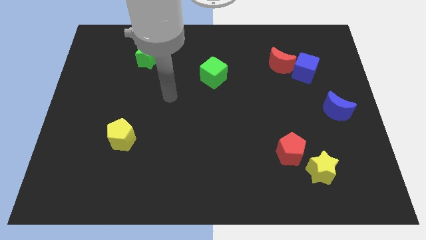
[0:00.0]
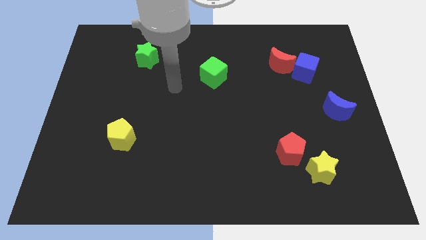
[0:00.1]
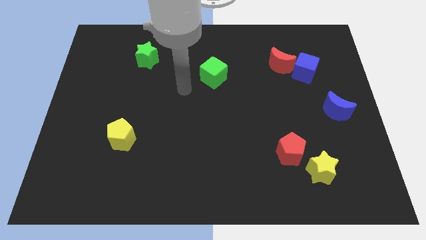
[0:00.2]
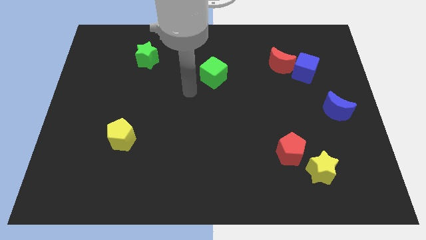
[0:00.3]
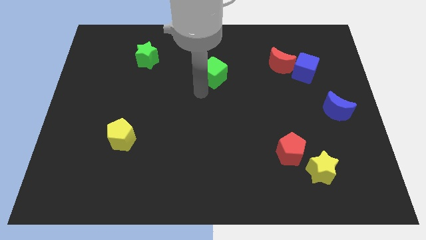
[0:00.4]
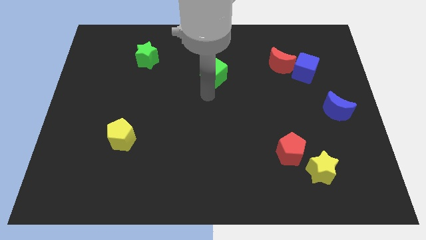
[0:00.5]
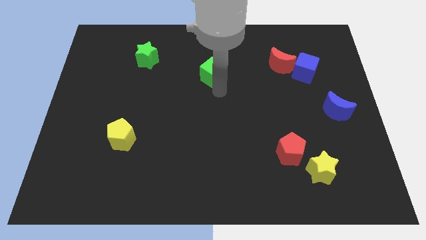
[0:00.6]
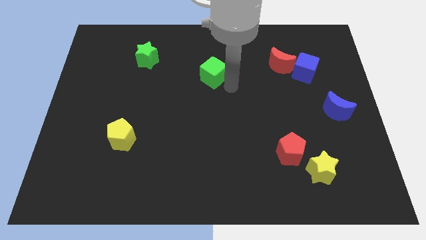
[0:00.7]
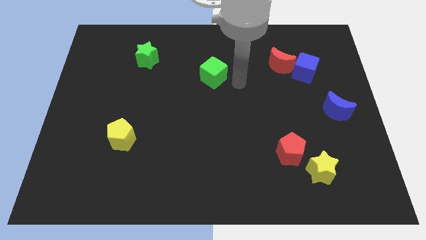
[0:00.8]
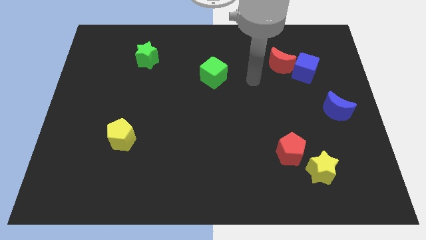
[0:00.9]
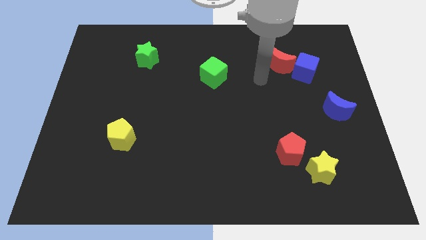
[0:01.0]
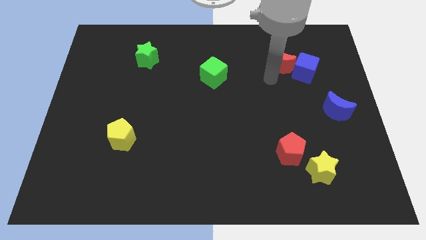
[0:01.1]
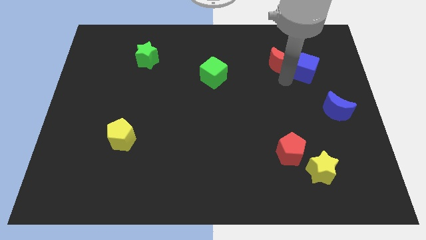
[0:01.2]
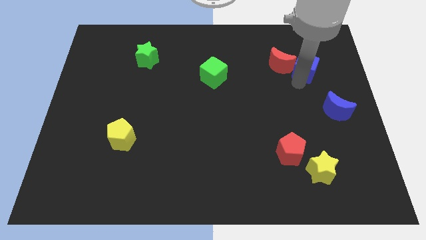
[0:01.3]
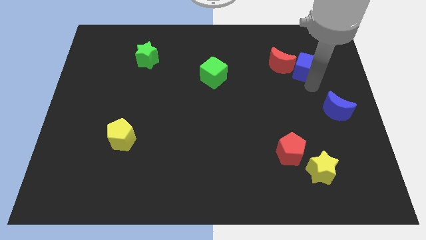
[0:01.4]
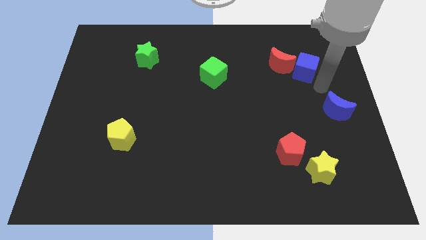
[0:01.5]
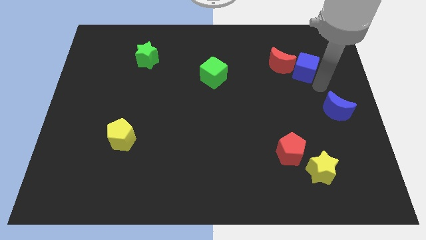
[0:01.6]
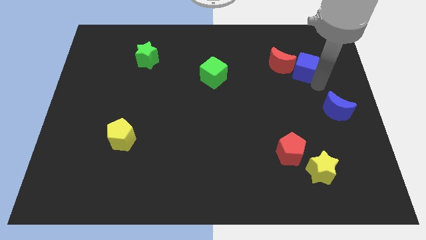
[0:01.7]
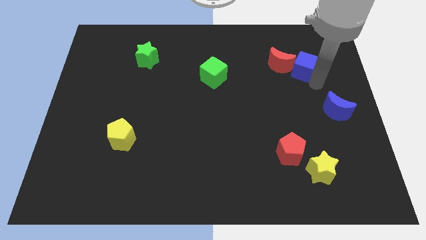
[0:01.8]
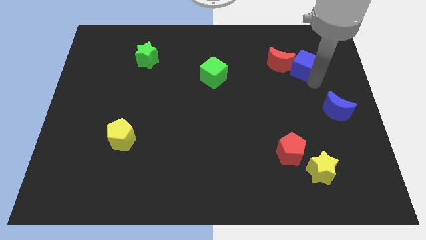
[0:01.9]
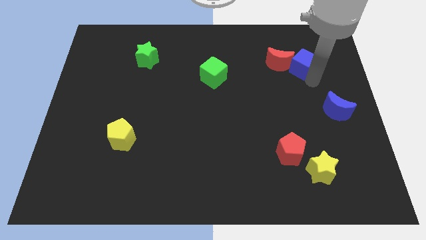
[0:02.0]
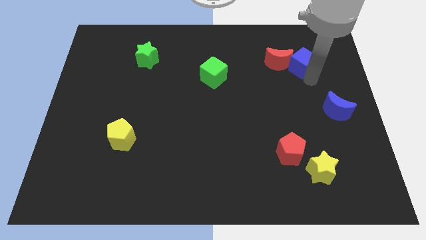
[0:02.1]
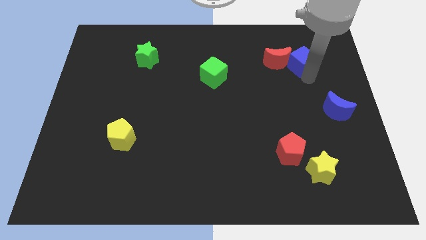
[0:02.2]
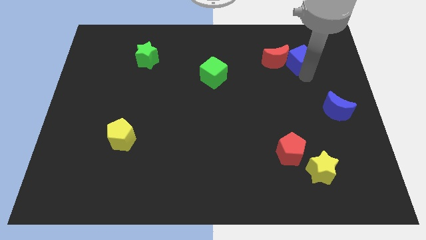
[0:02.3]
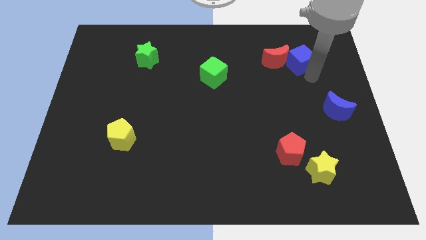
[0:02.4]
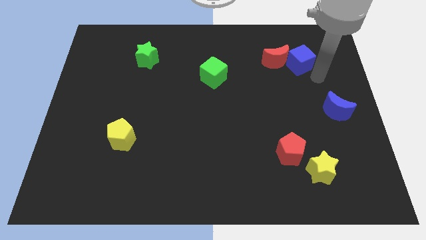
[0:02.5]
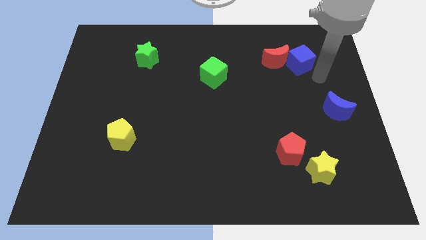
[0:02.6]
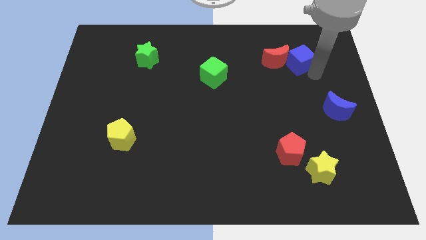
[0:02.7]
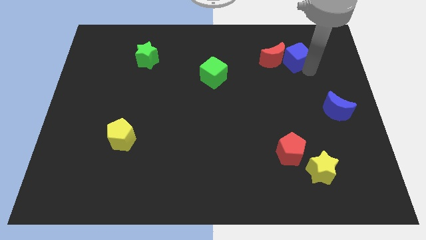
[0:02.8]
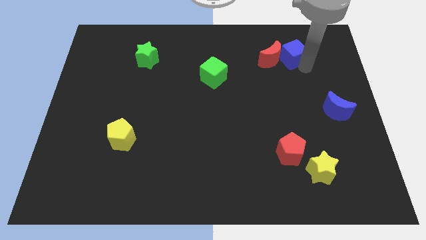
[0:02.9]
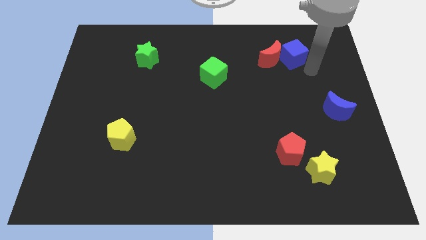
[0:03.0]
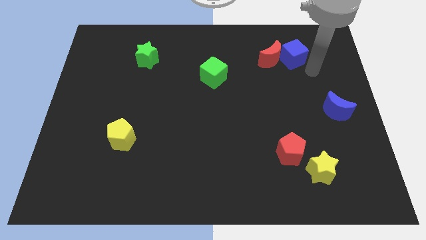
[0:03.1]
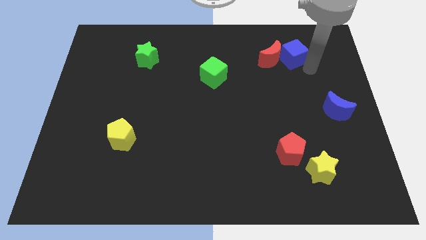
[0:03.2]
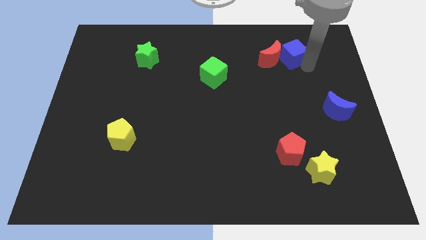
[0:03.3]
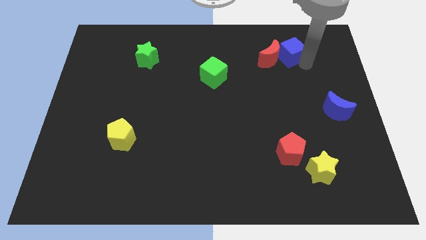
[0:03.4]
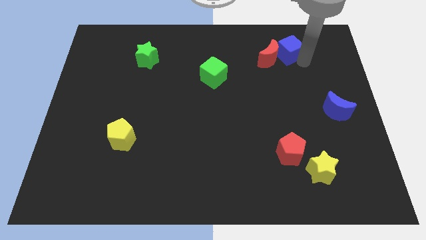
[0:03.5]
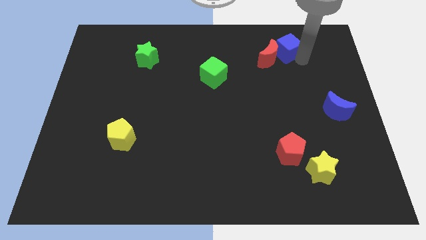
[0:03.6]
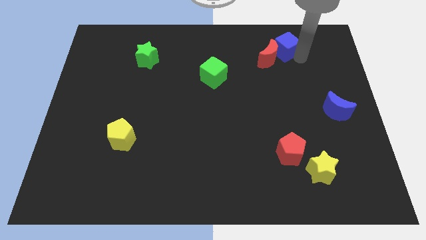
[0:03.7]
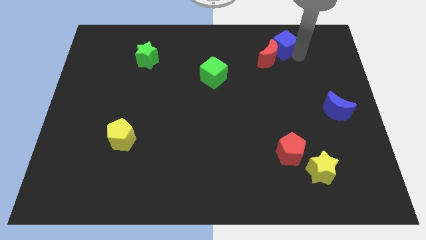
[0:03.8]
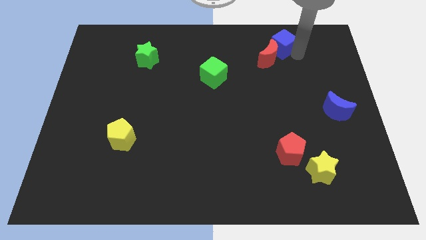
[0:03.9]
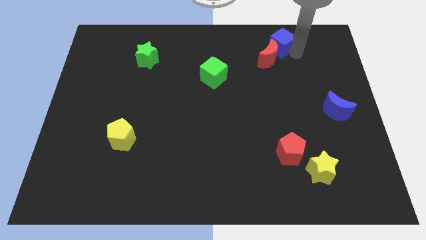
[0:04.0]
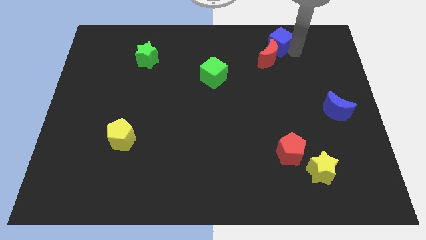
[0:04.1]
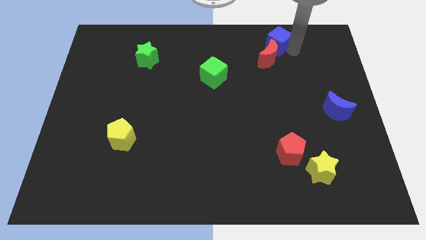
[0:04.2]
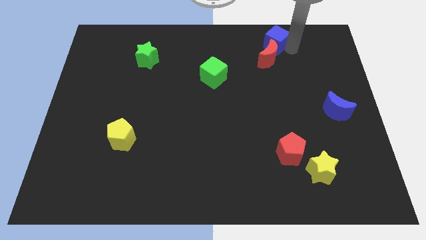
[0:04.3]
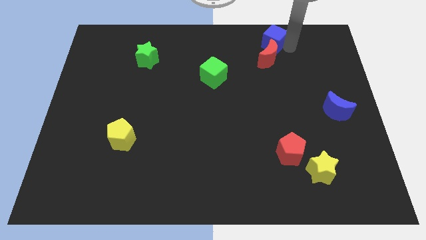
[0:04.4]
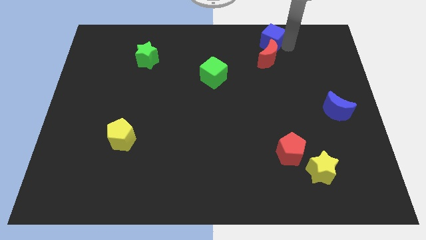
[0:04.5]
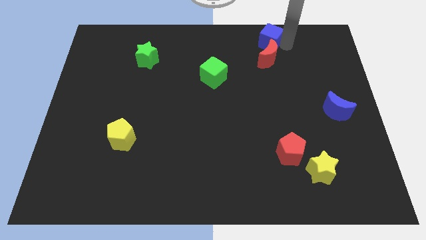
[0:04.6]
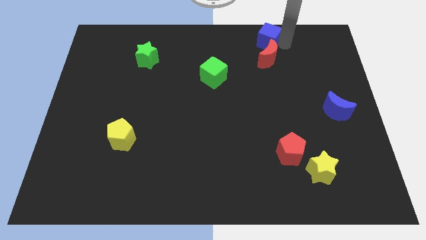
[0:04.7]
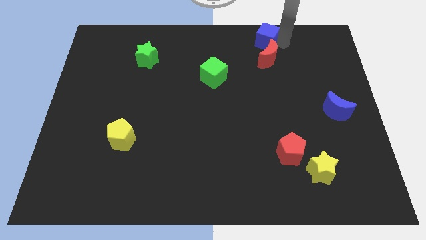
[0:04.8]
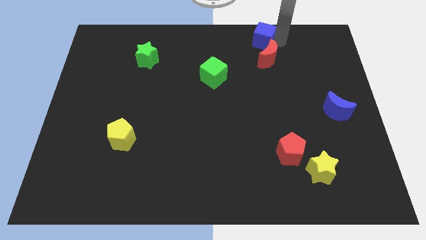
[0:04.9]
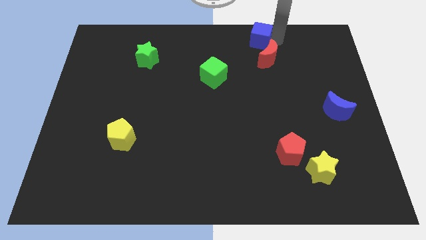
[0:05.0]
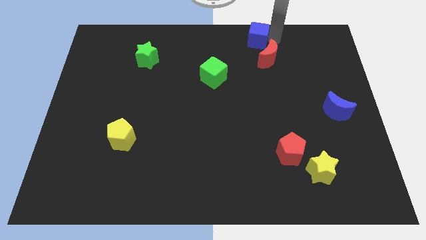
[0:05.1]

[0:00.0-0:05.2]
move the blue cube to the top

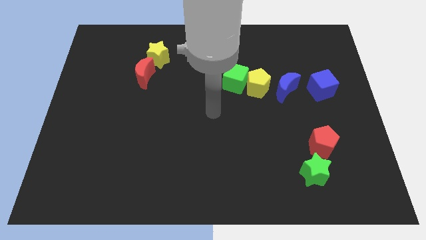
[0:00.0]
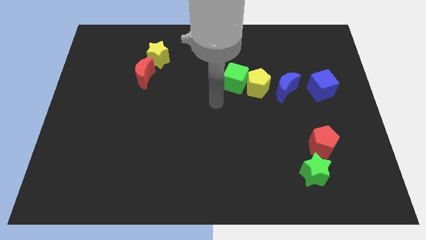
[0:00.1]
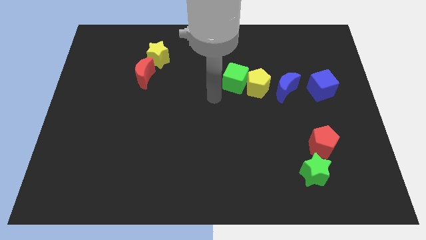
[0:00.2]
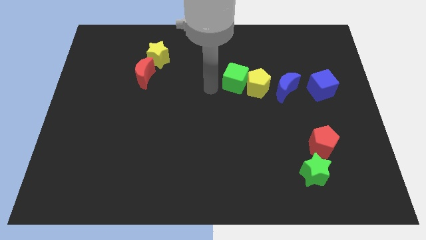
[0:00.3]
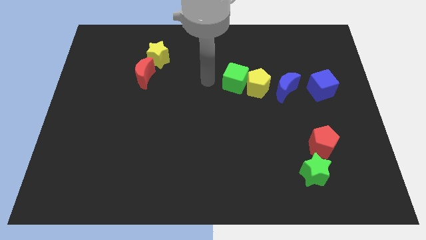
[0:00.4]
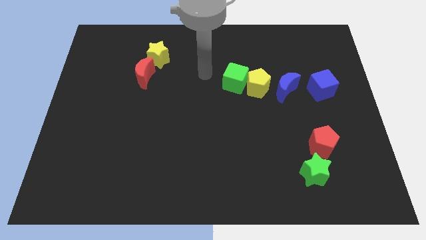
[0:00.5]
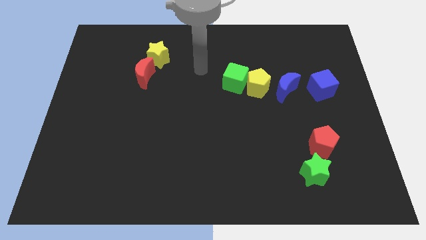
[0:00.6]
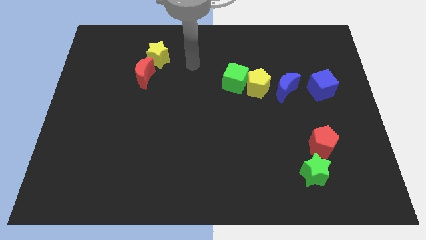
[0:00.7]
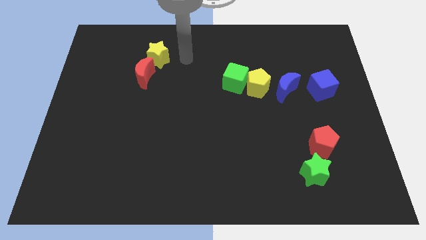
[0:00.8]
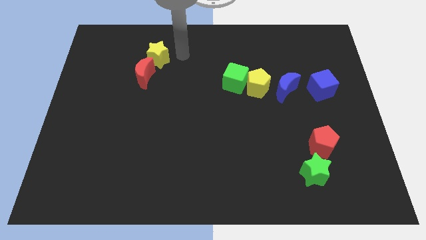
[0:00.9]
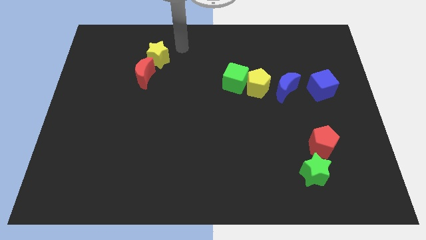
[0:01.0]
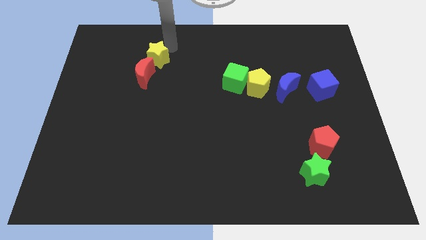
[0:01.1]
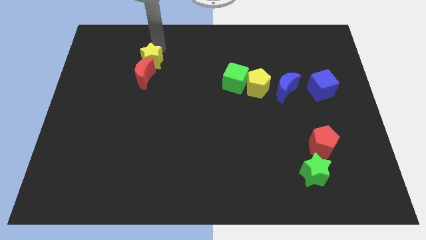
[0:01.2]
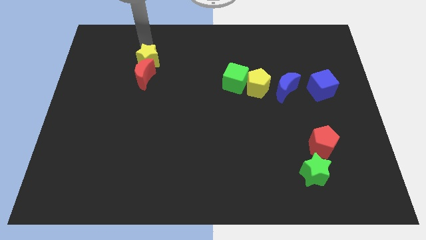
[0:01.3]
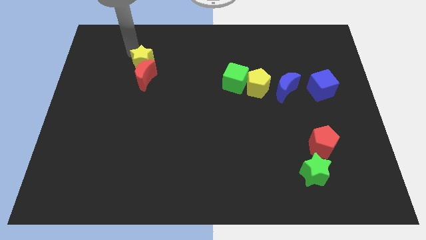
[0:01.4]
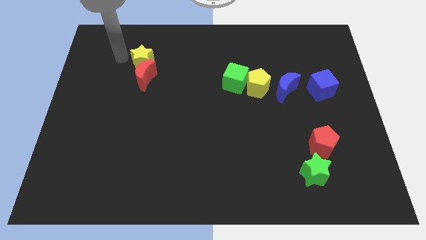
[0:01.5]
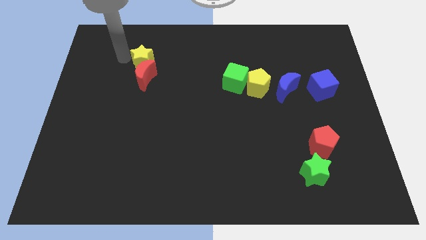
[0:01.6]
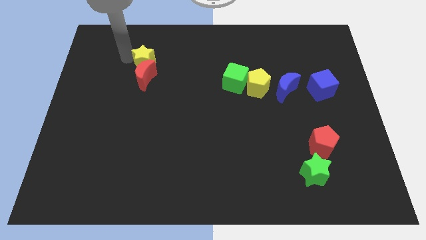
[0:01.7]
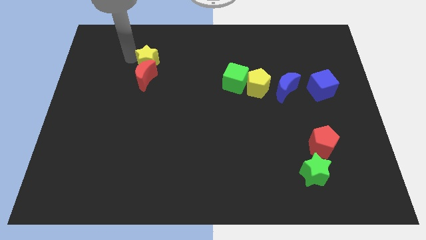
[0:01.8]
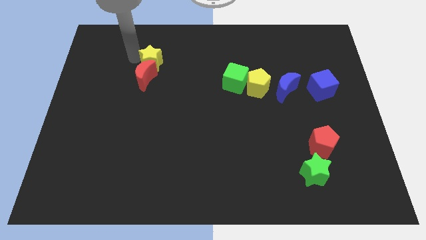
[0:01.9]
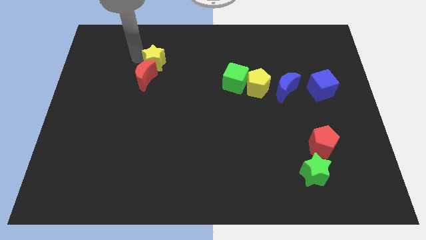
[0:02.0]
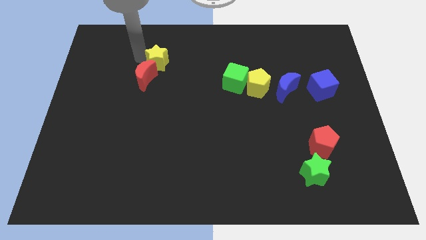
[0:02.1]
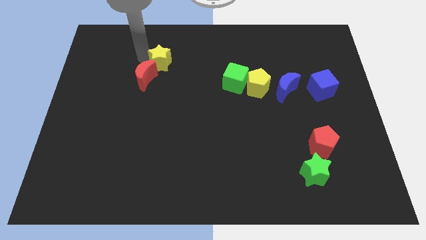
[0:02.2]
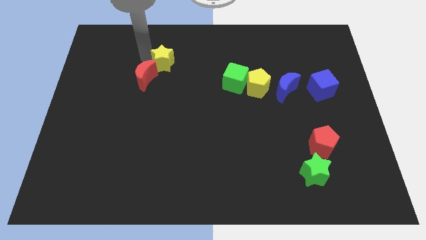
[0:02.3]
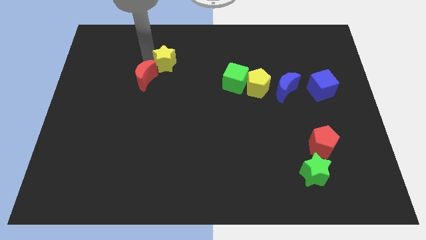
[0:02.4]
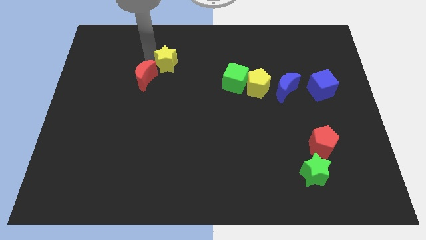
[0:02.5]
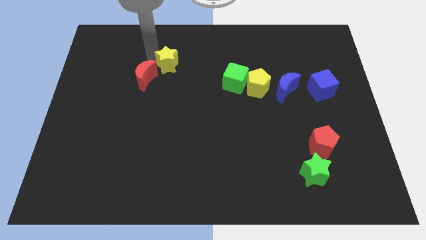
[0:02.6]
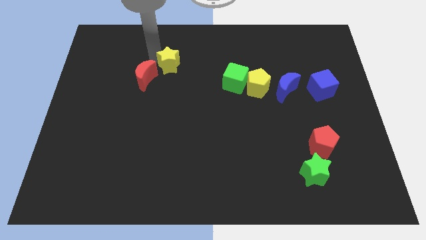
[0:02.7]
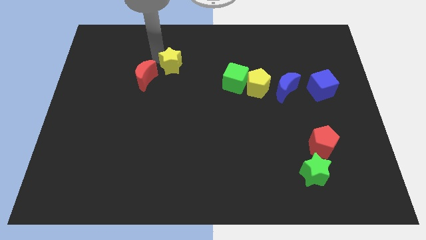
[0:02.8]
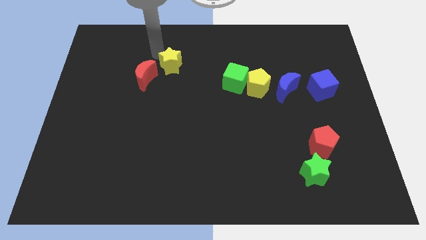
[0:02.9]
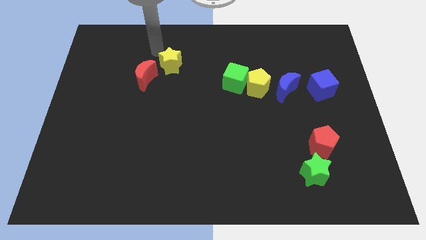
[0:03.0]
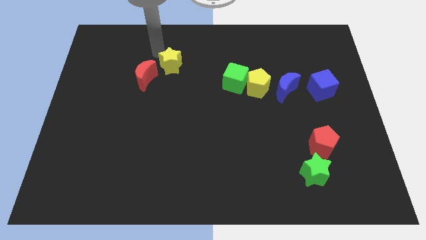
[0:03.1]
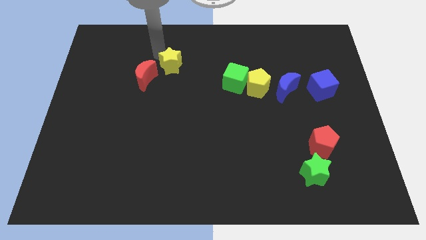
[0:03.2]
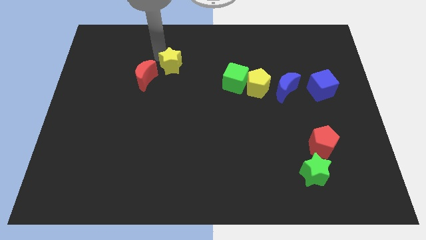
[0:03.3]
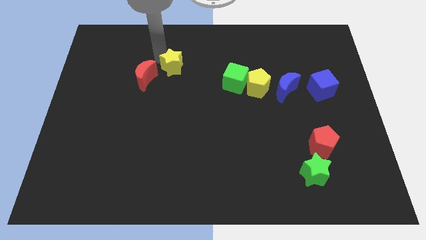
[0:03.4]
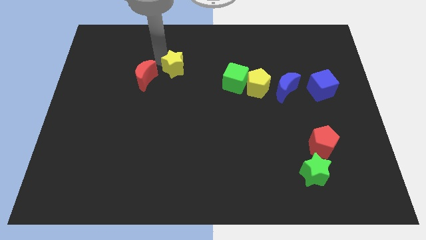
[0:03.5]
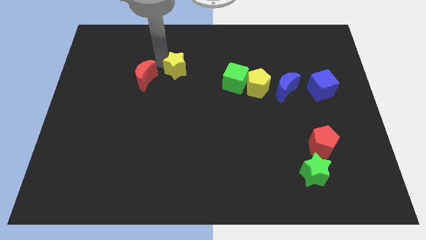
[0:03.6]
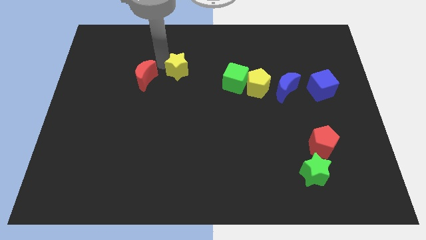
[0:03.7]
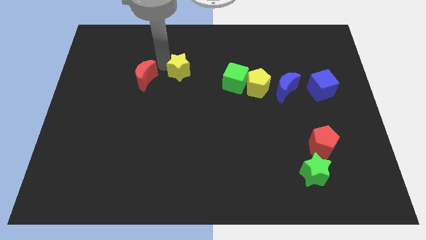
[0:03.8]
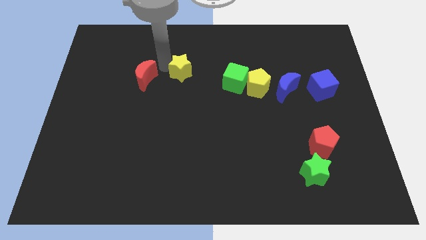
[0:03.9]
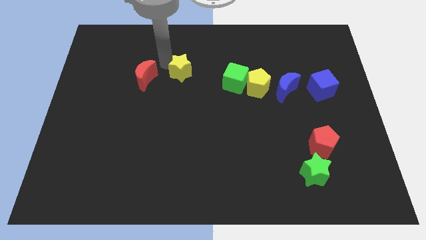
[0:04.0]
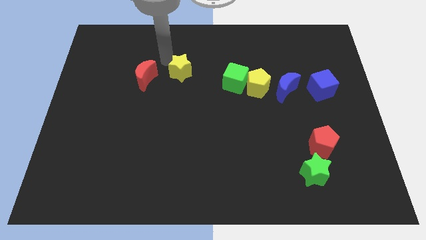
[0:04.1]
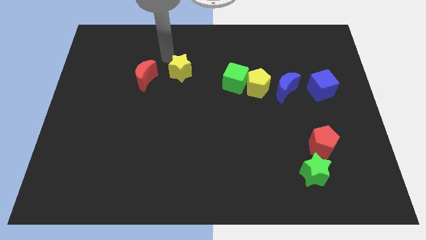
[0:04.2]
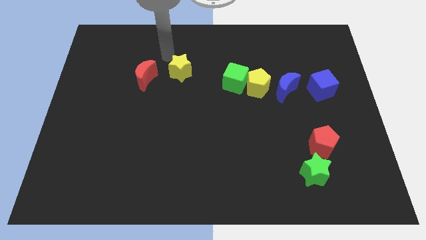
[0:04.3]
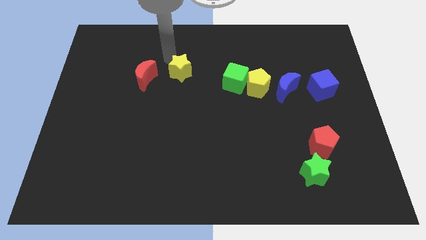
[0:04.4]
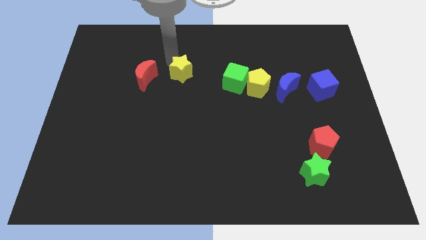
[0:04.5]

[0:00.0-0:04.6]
move the yellow star to the center of the board
